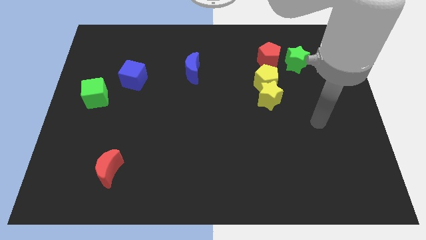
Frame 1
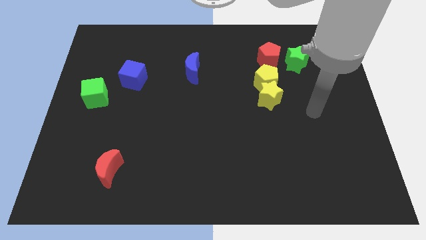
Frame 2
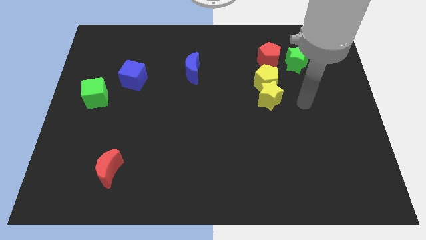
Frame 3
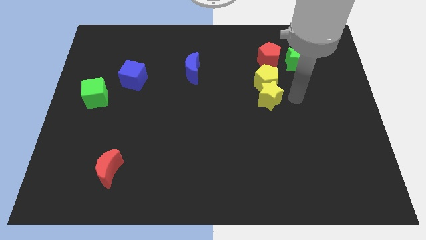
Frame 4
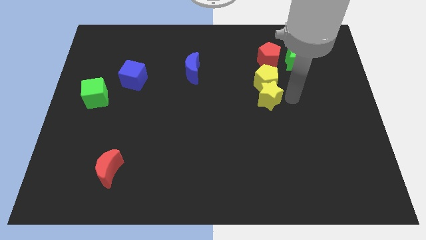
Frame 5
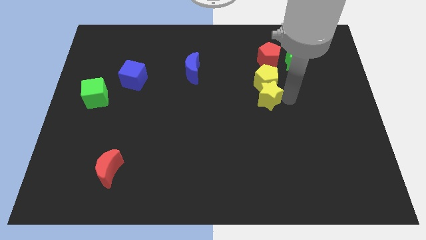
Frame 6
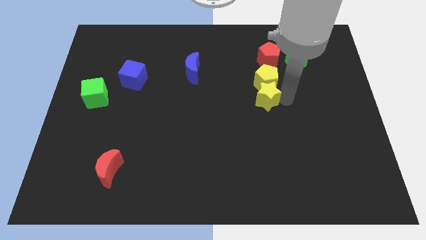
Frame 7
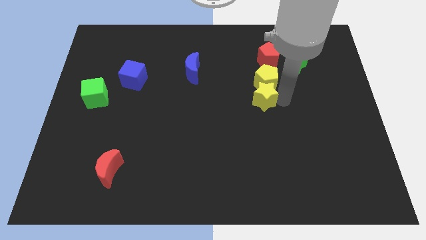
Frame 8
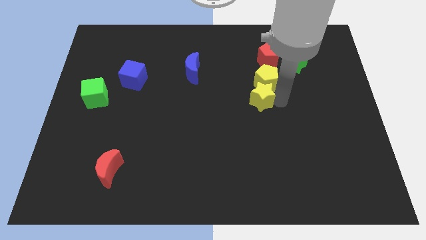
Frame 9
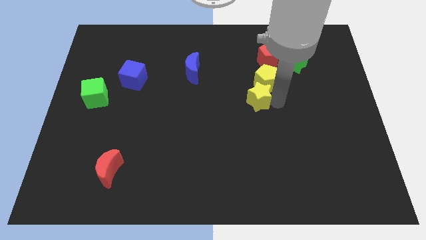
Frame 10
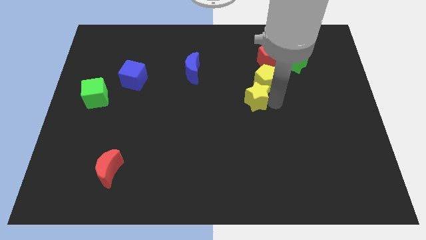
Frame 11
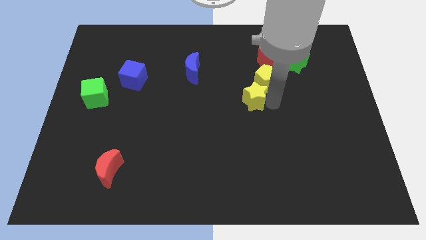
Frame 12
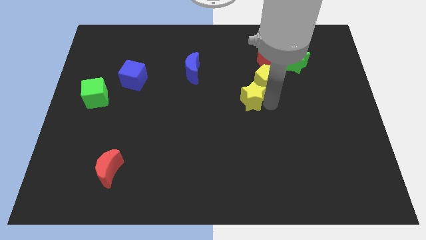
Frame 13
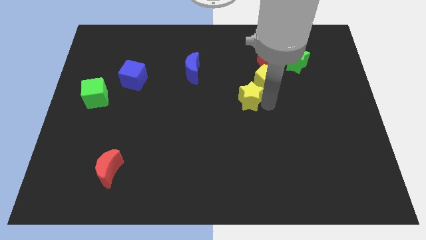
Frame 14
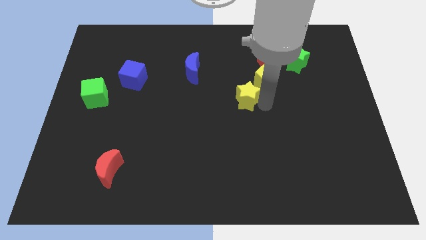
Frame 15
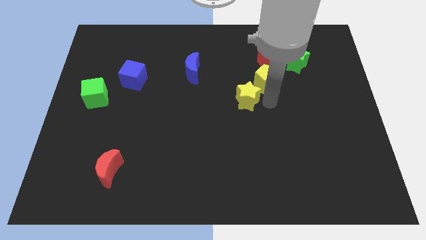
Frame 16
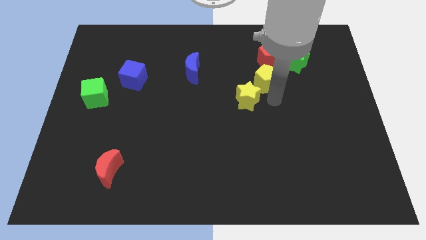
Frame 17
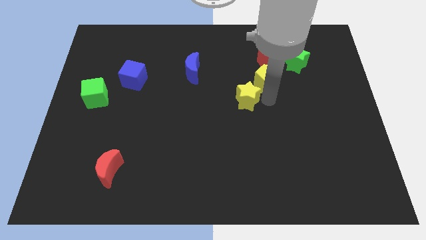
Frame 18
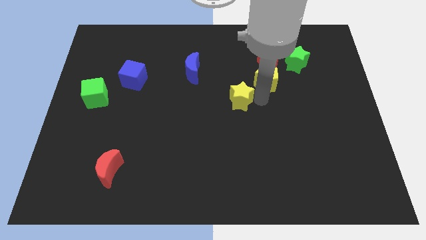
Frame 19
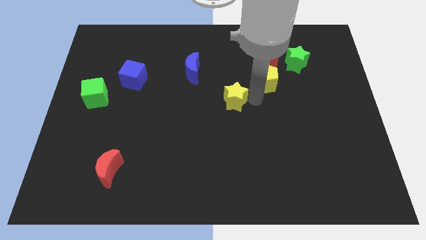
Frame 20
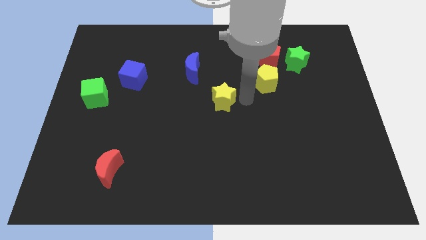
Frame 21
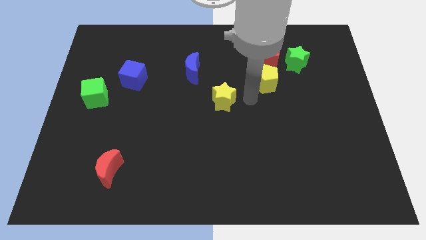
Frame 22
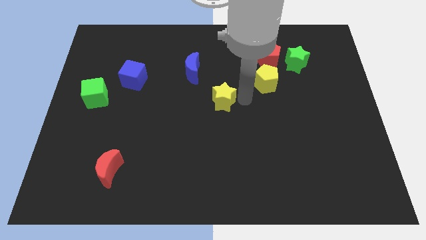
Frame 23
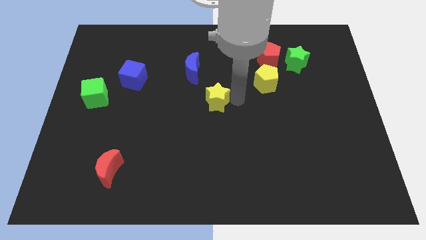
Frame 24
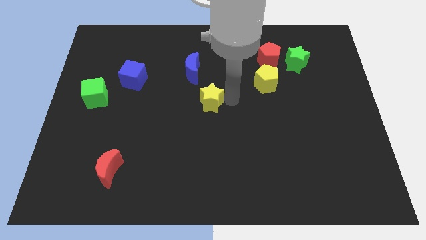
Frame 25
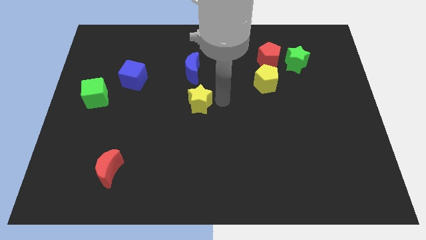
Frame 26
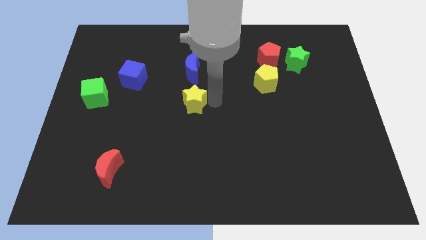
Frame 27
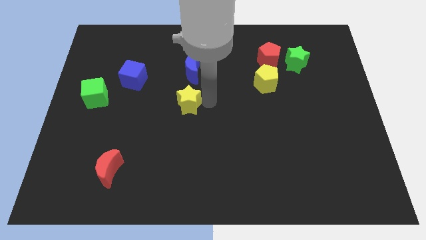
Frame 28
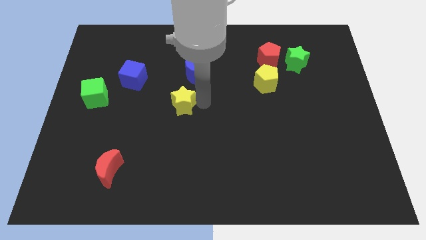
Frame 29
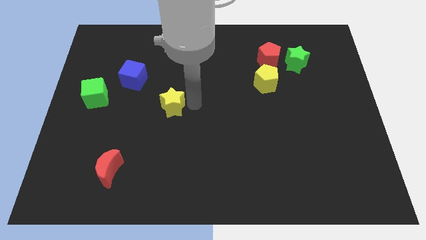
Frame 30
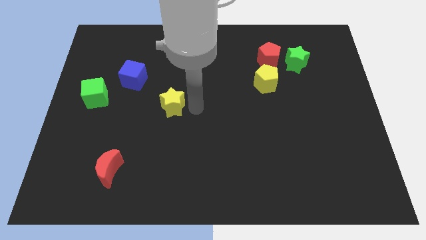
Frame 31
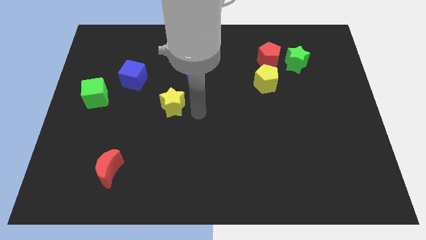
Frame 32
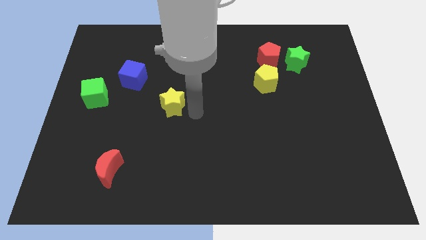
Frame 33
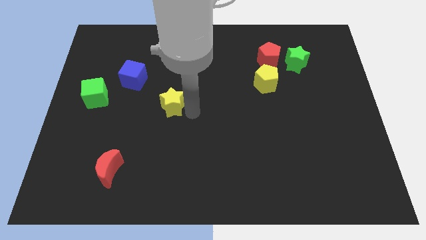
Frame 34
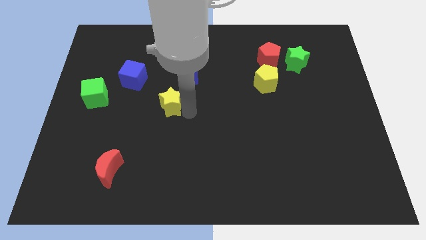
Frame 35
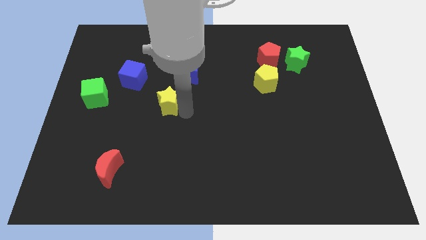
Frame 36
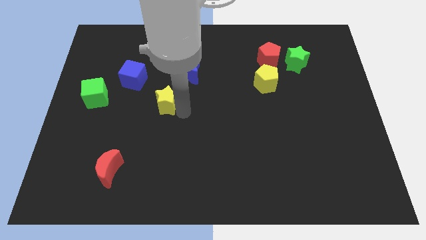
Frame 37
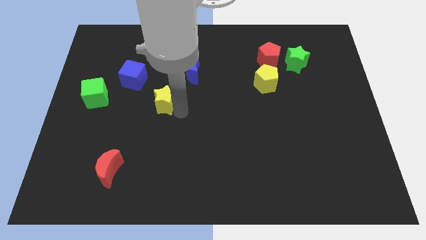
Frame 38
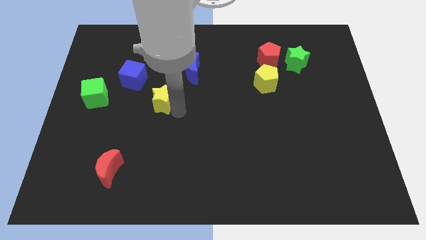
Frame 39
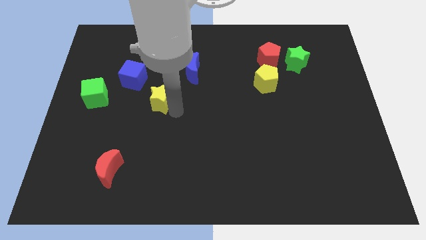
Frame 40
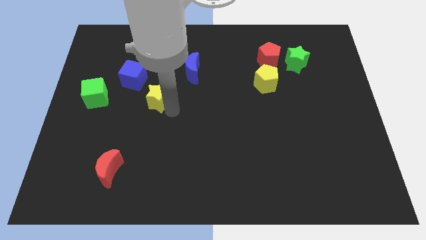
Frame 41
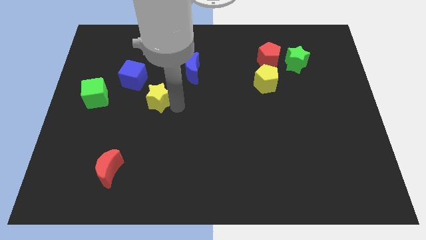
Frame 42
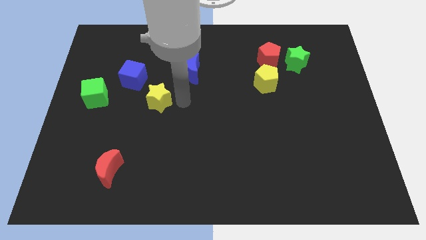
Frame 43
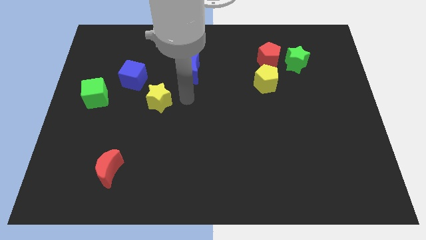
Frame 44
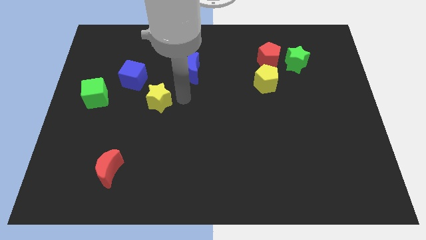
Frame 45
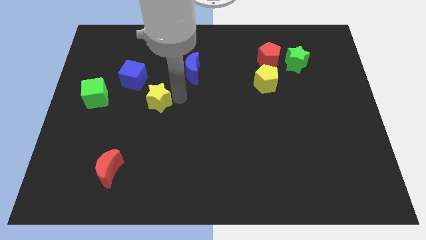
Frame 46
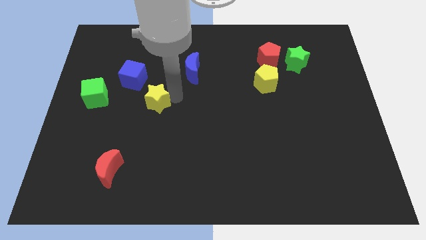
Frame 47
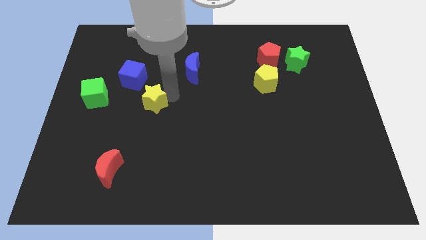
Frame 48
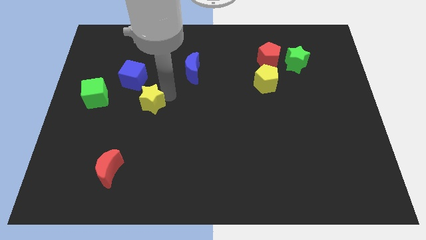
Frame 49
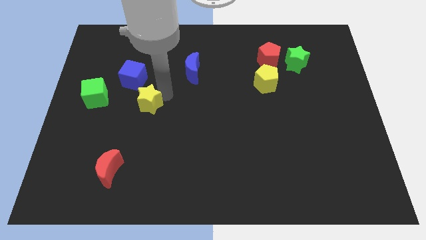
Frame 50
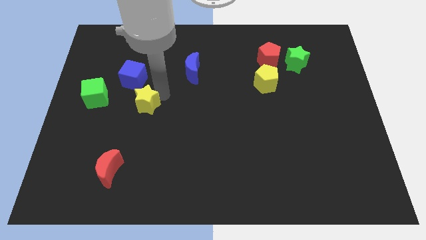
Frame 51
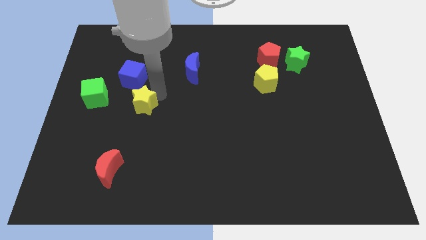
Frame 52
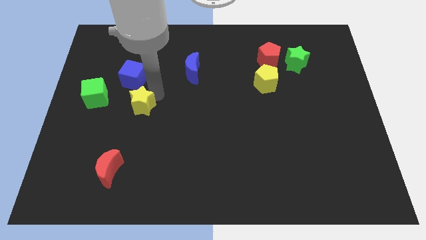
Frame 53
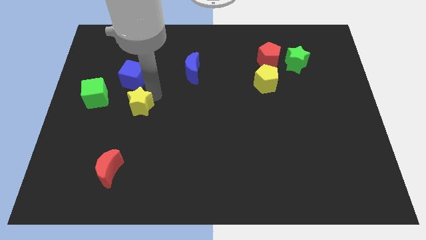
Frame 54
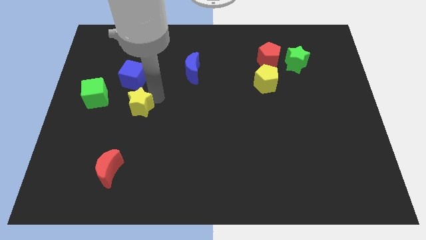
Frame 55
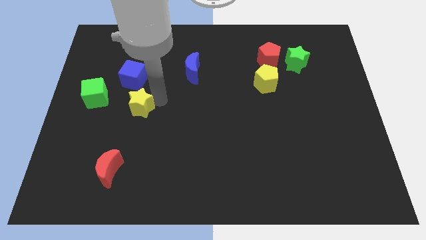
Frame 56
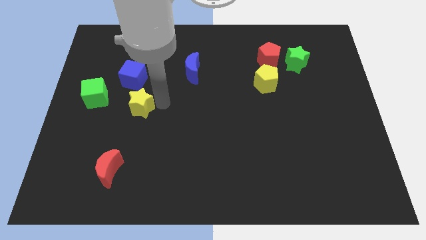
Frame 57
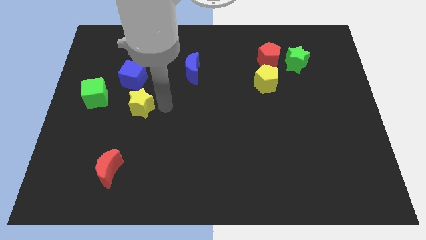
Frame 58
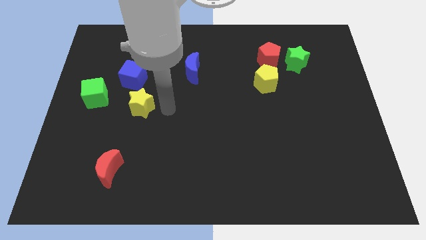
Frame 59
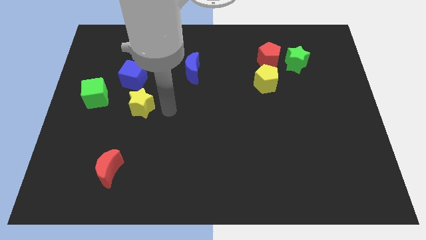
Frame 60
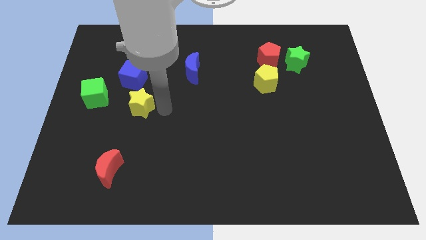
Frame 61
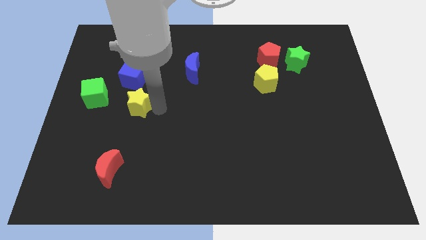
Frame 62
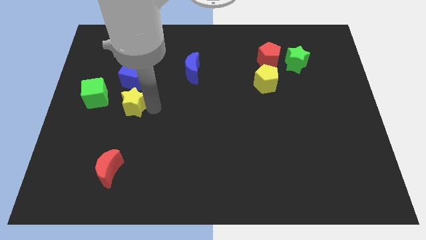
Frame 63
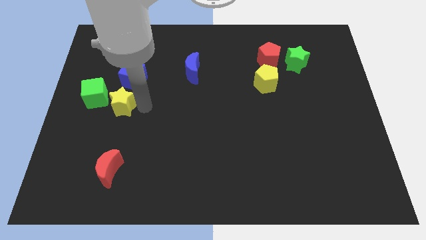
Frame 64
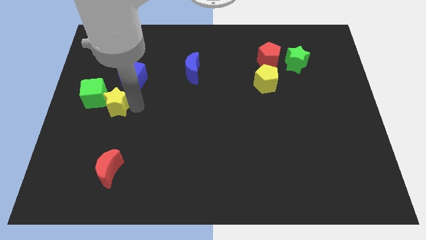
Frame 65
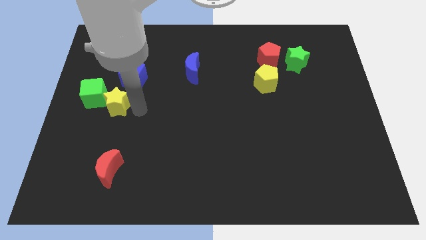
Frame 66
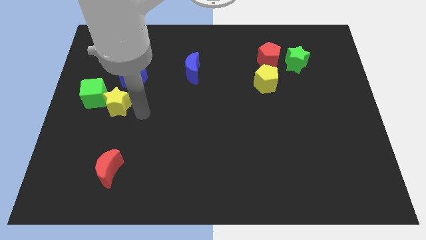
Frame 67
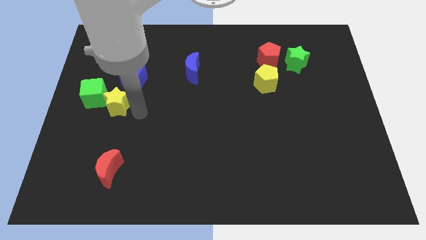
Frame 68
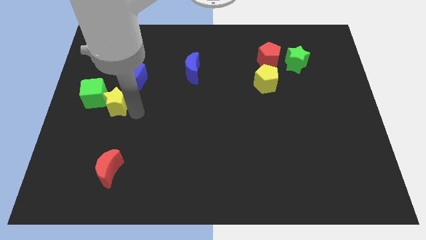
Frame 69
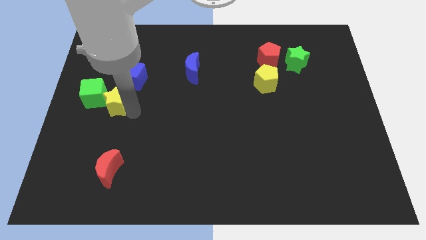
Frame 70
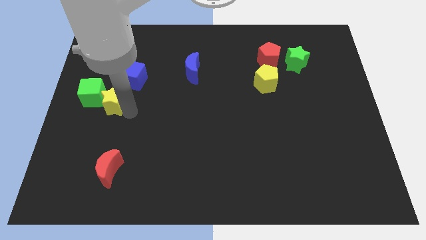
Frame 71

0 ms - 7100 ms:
slide the yellow star to the green cube
